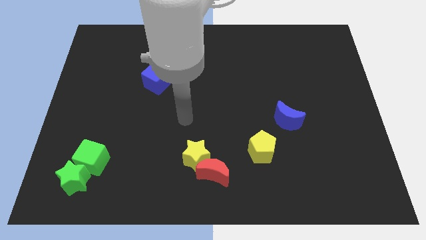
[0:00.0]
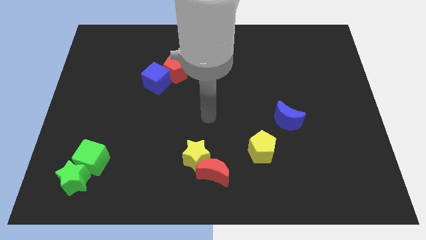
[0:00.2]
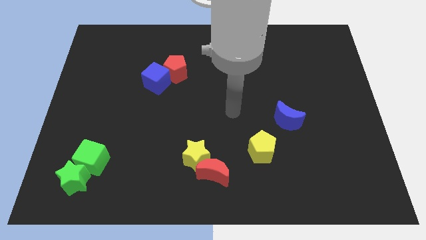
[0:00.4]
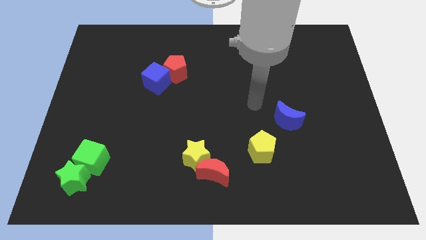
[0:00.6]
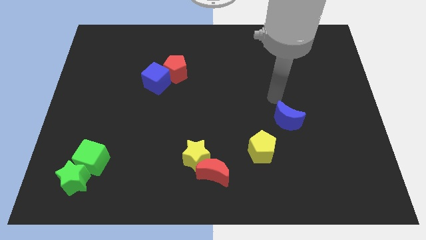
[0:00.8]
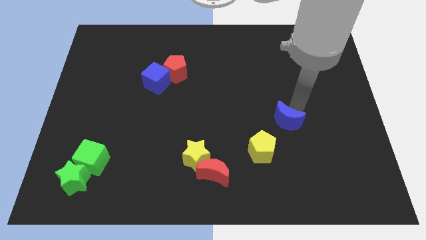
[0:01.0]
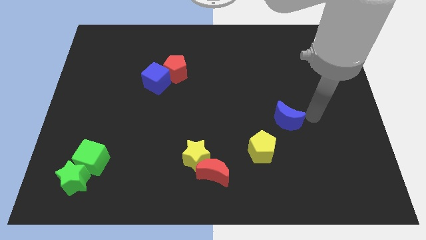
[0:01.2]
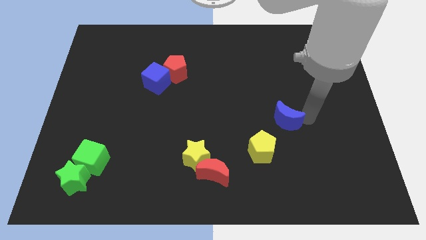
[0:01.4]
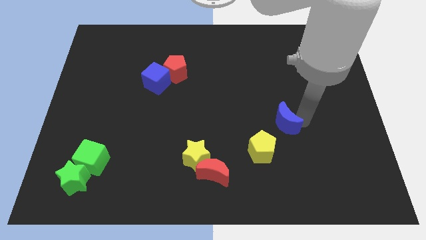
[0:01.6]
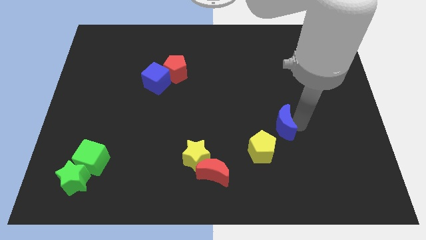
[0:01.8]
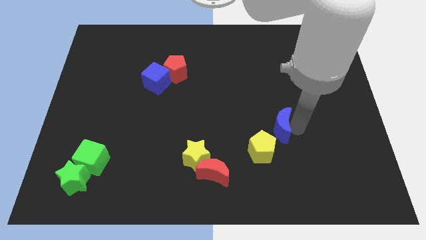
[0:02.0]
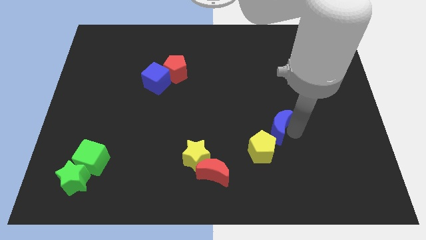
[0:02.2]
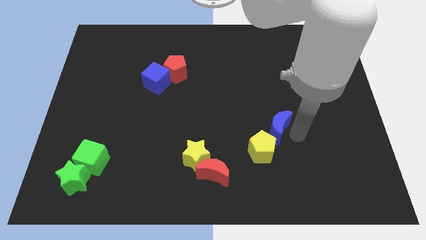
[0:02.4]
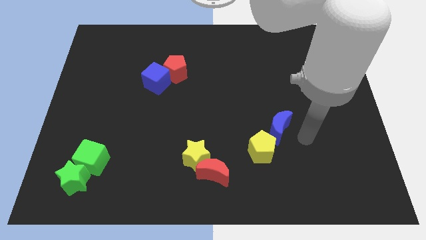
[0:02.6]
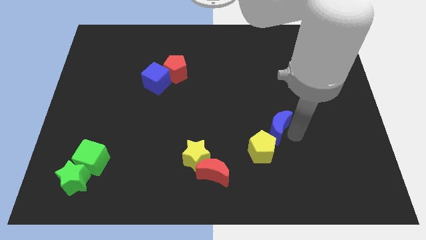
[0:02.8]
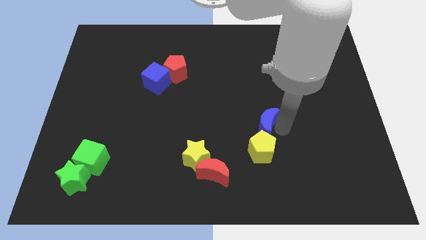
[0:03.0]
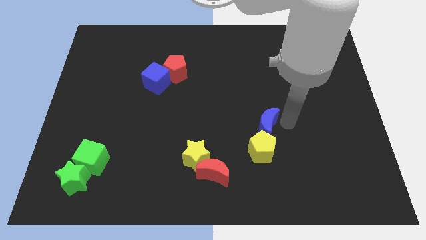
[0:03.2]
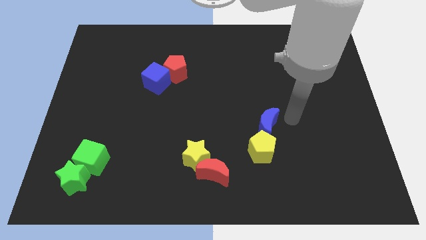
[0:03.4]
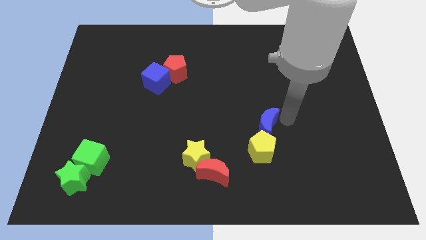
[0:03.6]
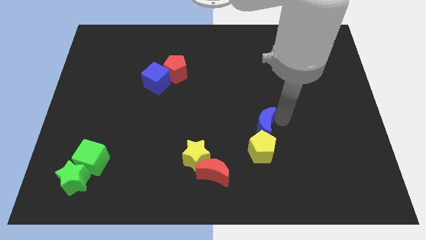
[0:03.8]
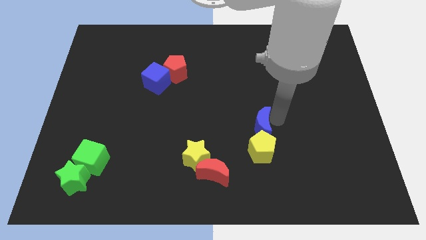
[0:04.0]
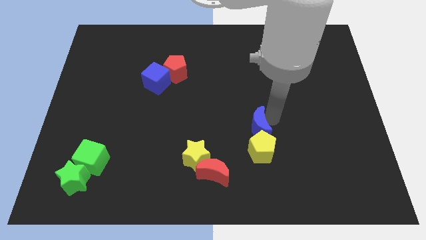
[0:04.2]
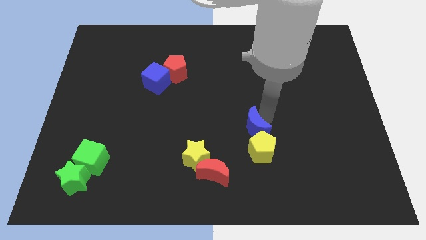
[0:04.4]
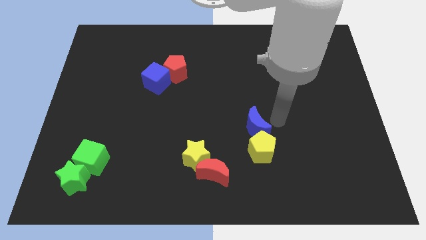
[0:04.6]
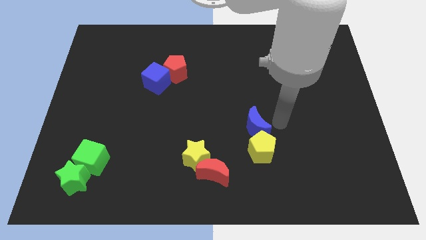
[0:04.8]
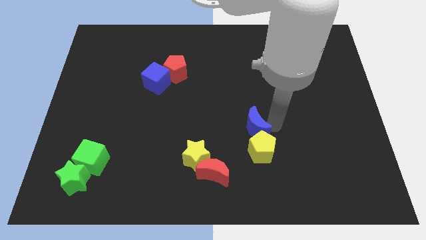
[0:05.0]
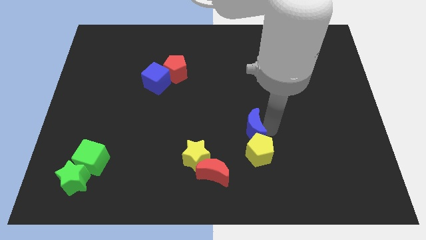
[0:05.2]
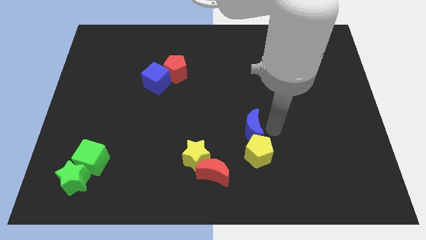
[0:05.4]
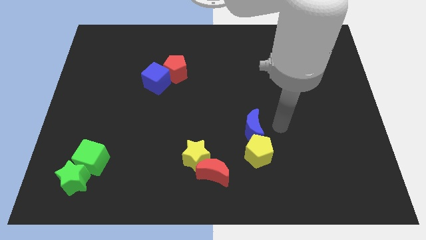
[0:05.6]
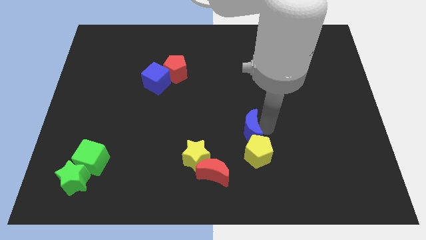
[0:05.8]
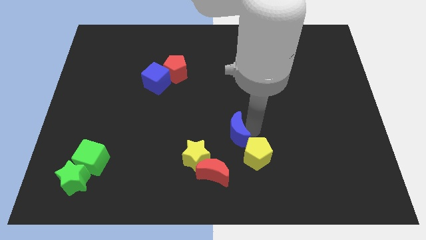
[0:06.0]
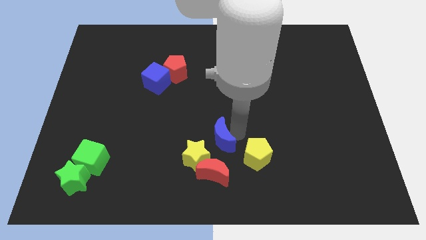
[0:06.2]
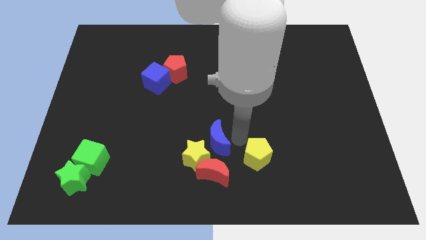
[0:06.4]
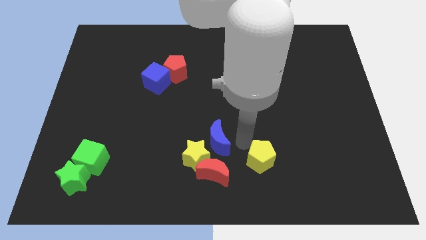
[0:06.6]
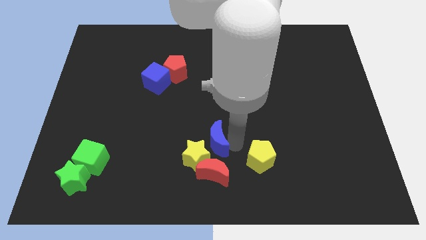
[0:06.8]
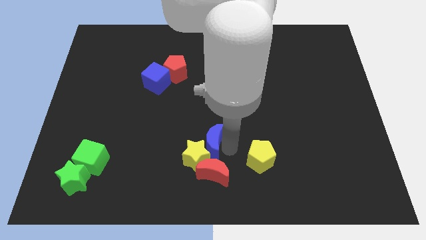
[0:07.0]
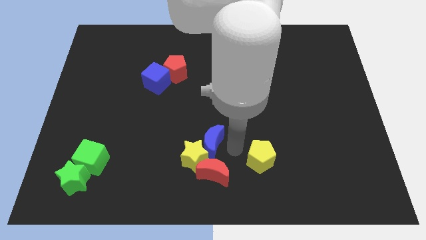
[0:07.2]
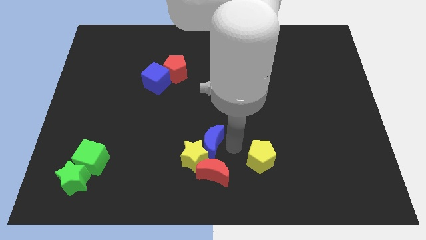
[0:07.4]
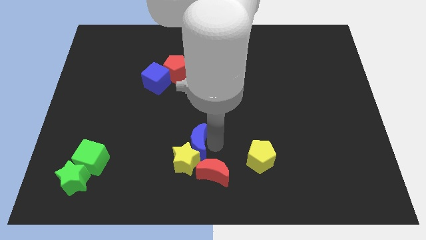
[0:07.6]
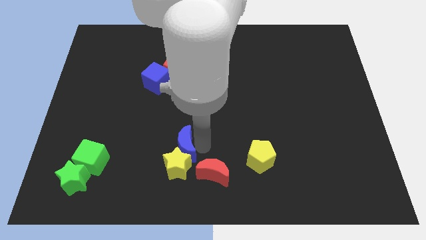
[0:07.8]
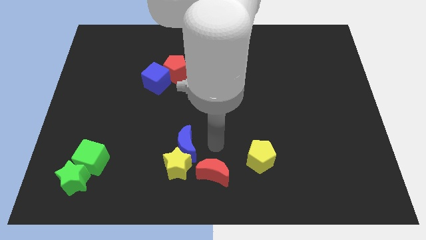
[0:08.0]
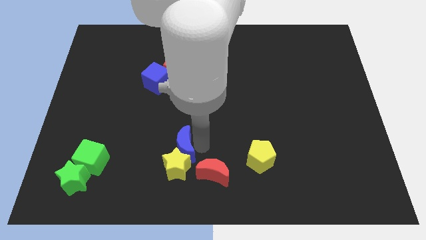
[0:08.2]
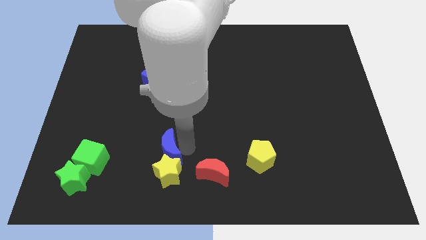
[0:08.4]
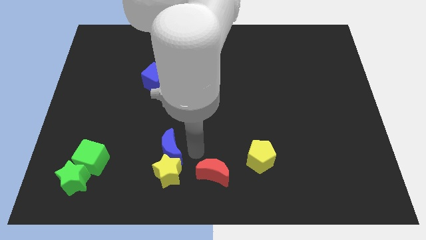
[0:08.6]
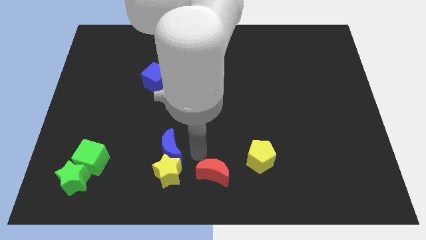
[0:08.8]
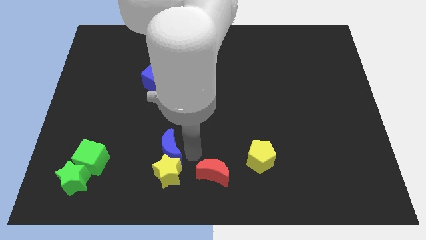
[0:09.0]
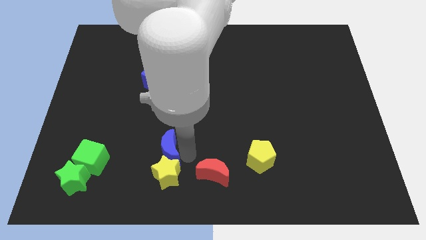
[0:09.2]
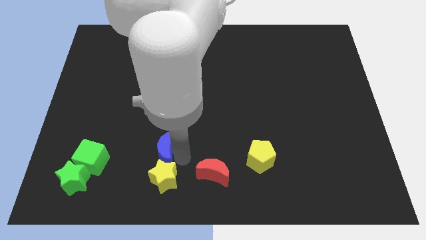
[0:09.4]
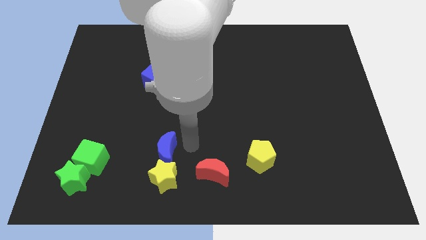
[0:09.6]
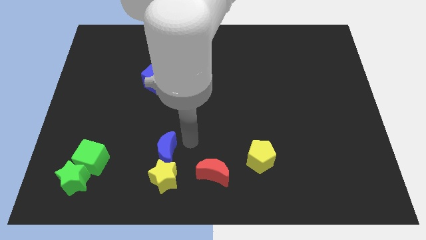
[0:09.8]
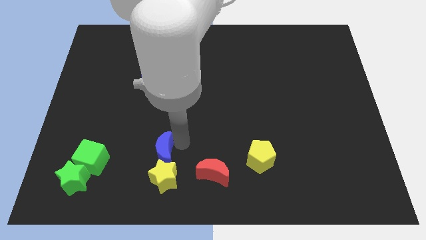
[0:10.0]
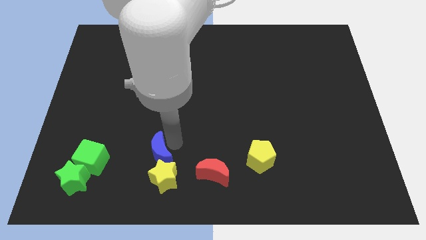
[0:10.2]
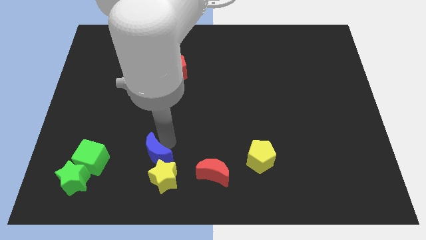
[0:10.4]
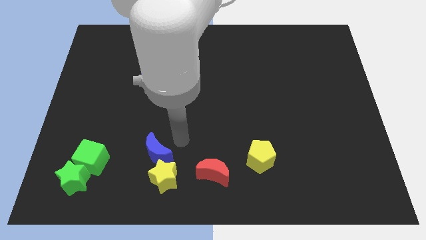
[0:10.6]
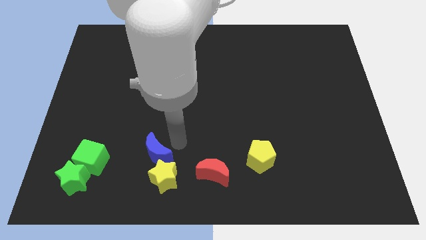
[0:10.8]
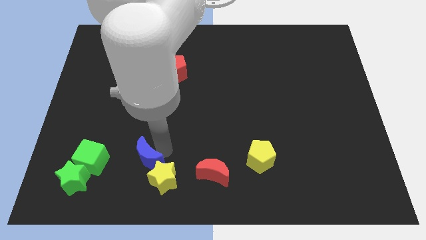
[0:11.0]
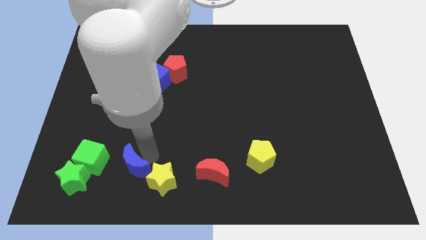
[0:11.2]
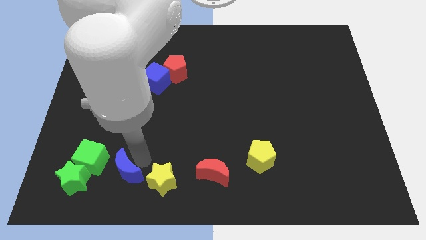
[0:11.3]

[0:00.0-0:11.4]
put the blue moon to the bottom right of the green cube

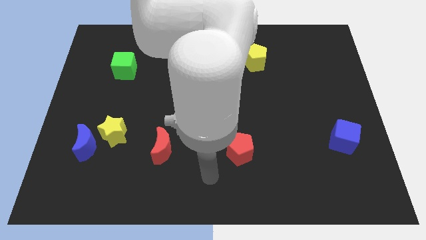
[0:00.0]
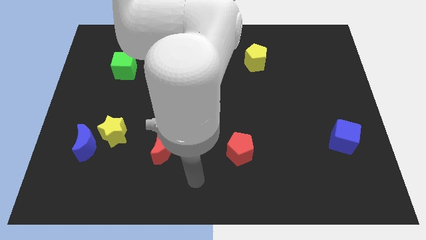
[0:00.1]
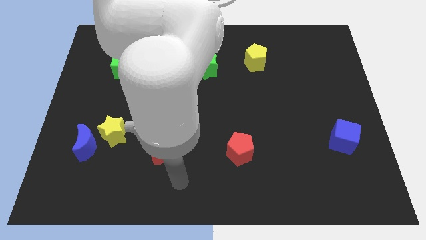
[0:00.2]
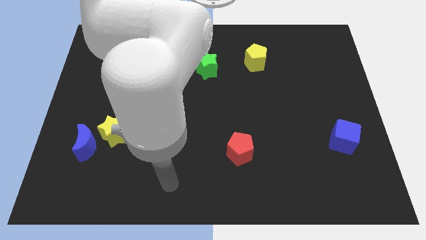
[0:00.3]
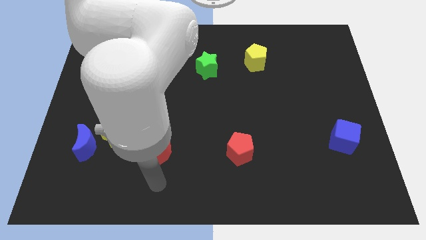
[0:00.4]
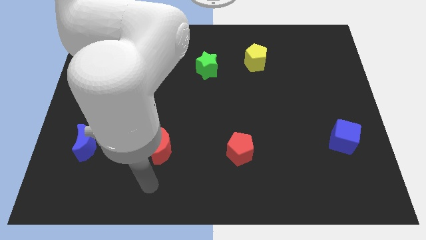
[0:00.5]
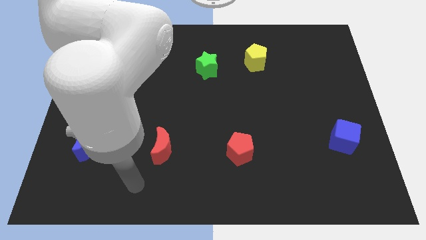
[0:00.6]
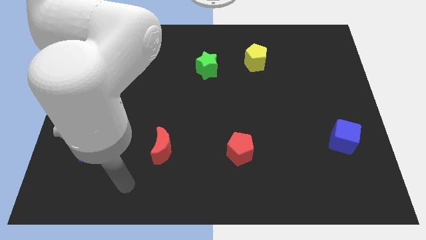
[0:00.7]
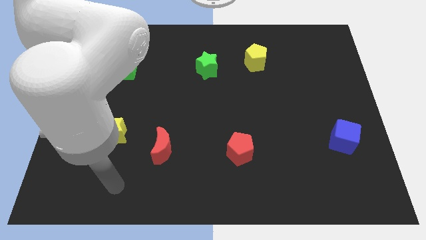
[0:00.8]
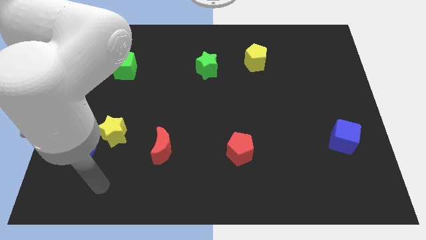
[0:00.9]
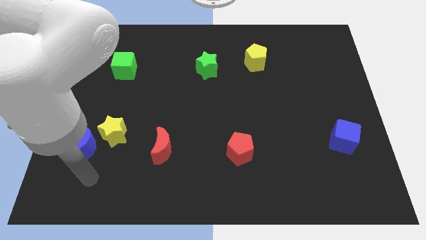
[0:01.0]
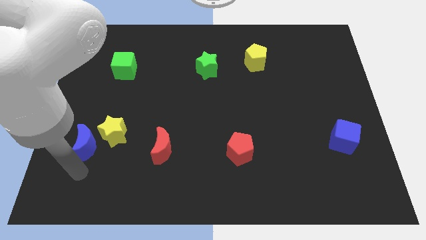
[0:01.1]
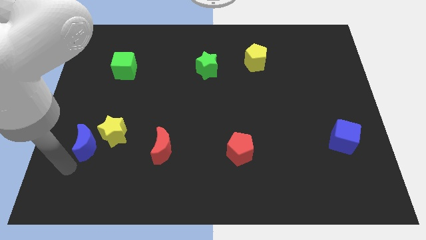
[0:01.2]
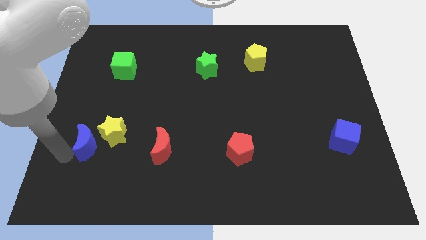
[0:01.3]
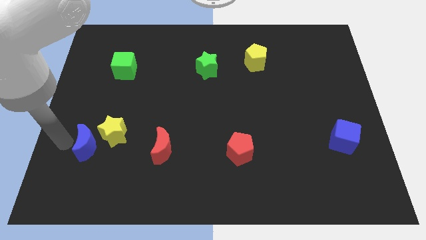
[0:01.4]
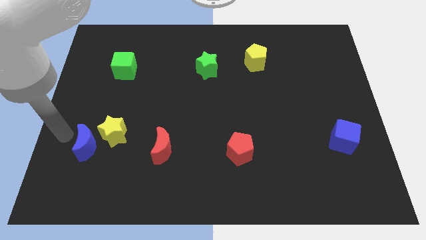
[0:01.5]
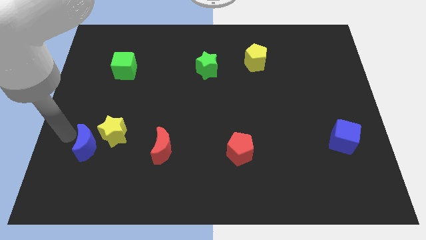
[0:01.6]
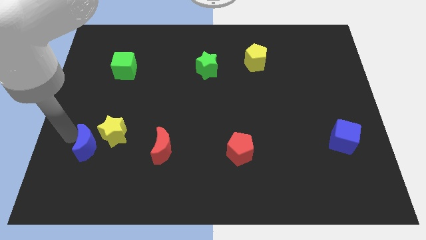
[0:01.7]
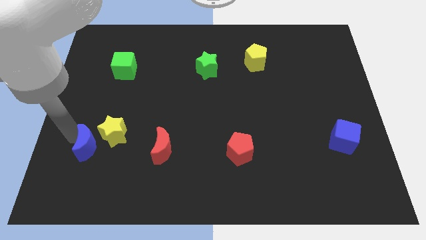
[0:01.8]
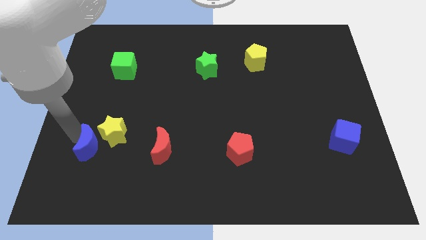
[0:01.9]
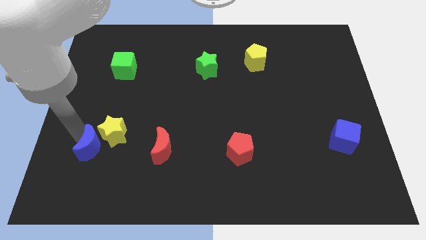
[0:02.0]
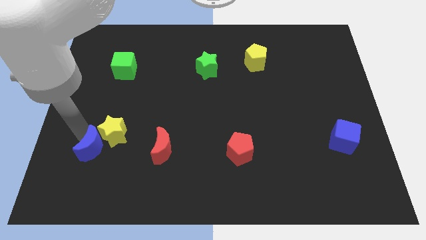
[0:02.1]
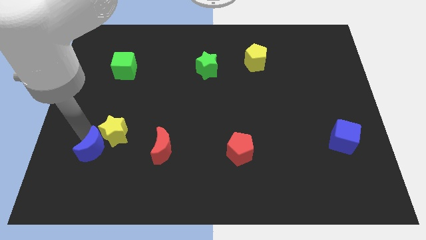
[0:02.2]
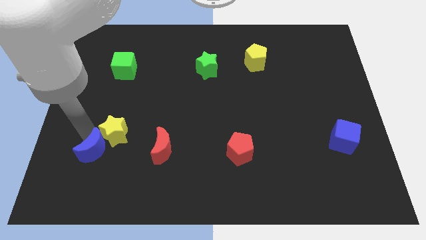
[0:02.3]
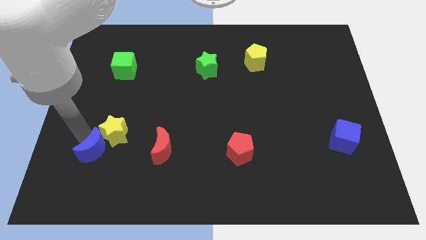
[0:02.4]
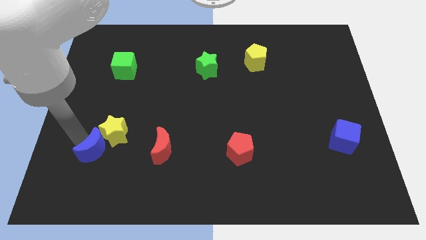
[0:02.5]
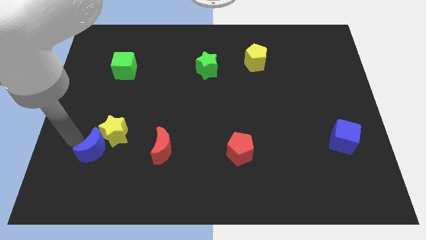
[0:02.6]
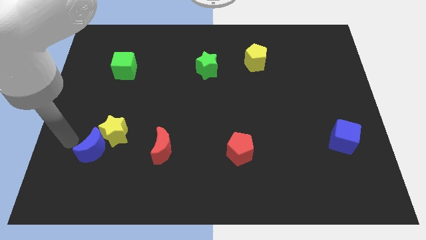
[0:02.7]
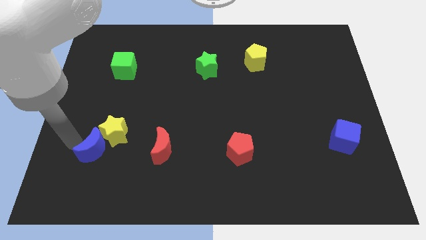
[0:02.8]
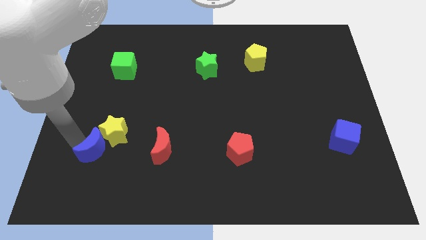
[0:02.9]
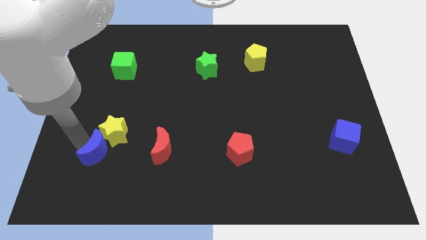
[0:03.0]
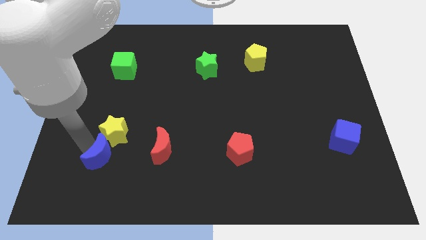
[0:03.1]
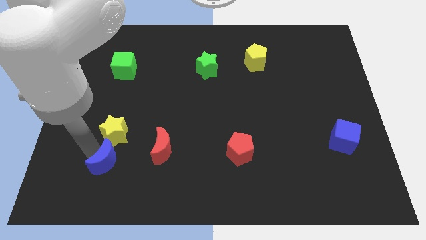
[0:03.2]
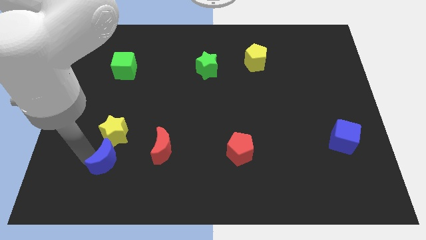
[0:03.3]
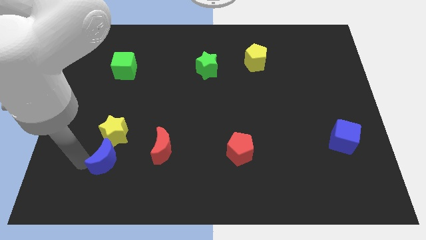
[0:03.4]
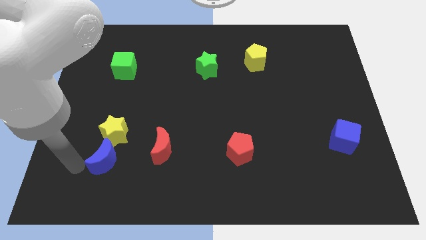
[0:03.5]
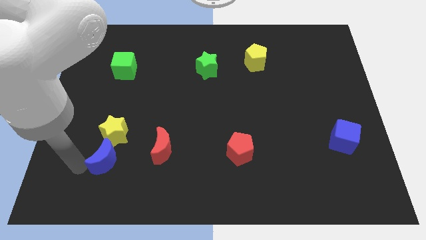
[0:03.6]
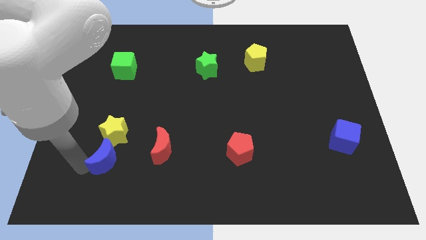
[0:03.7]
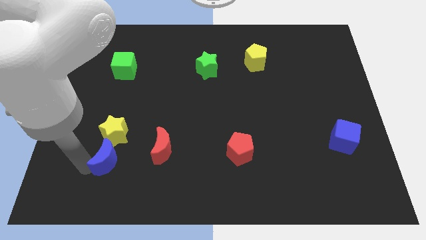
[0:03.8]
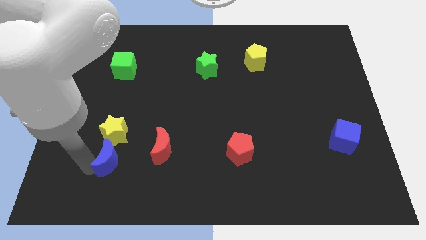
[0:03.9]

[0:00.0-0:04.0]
move the blue moon diagonally down and to the right of the yellow star
